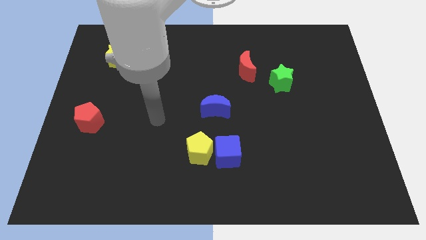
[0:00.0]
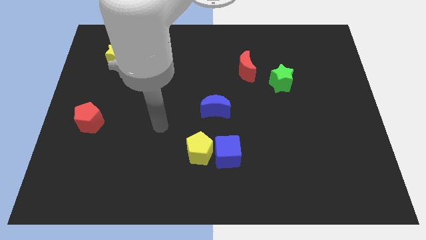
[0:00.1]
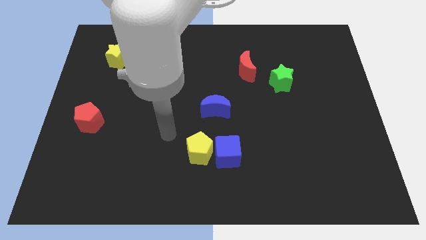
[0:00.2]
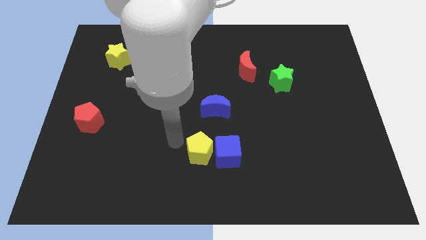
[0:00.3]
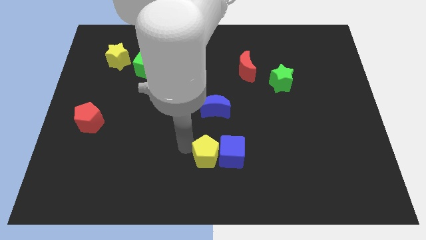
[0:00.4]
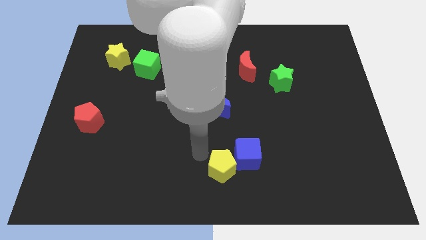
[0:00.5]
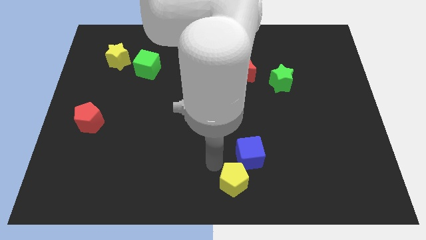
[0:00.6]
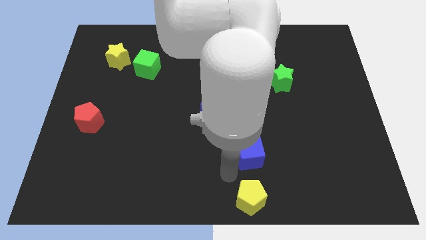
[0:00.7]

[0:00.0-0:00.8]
move the blue cube away from the yellow pentagon

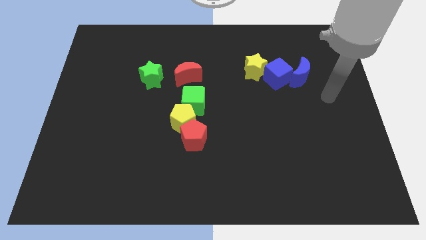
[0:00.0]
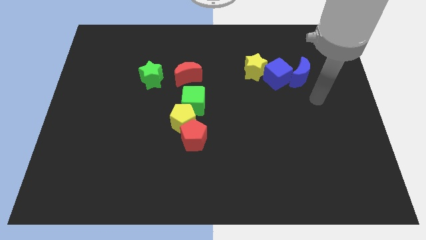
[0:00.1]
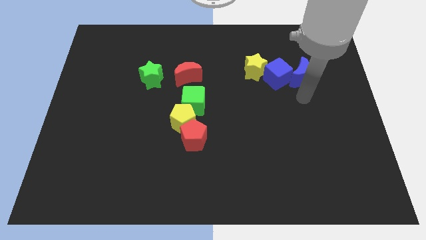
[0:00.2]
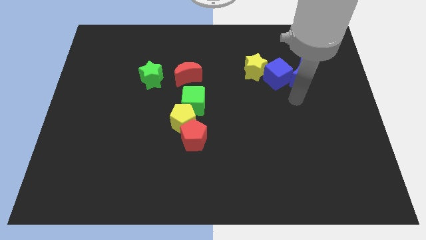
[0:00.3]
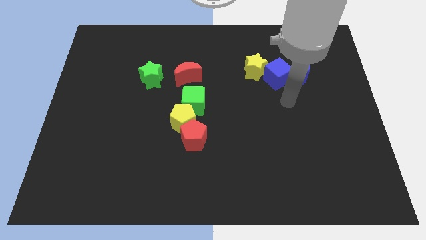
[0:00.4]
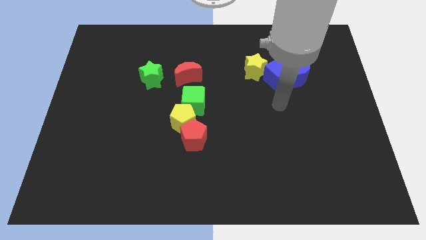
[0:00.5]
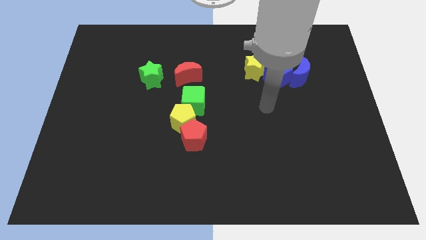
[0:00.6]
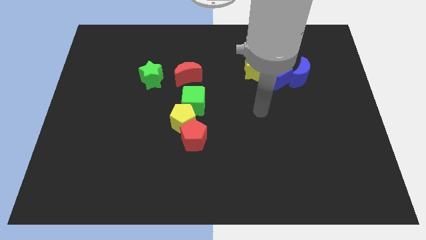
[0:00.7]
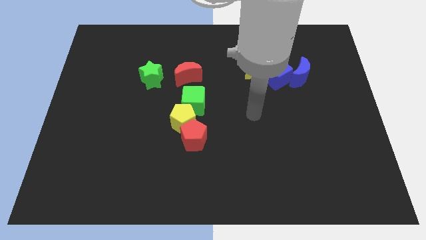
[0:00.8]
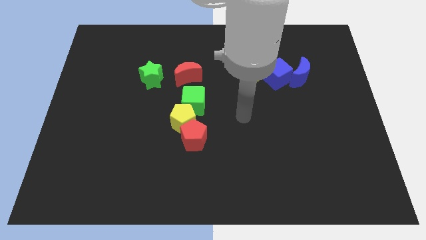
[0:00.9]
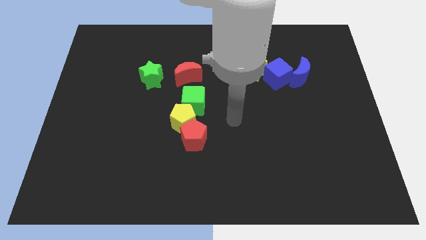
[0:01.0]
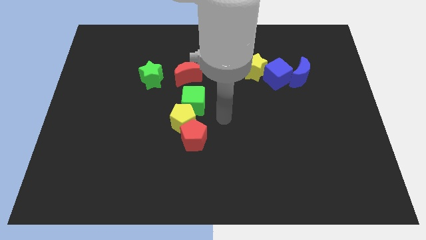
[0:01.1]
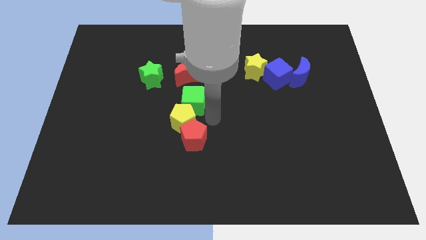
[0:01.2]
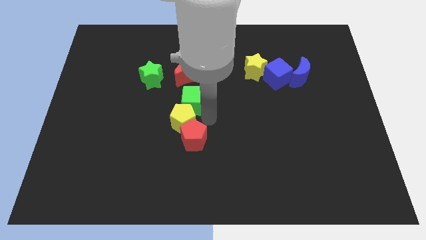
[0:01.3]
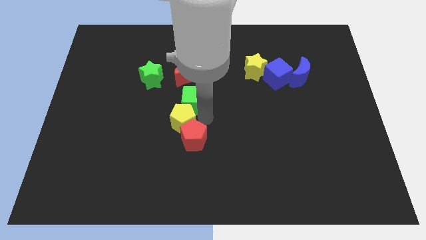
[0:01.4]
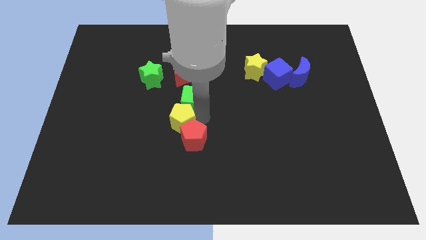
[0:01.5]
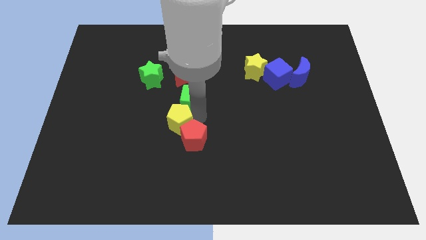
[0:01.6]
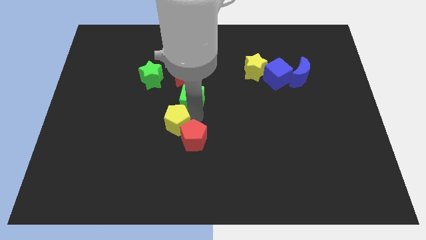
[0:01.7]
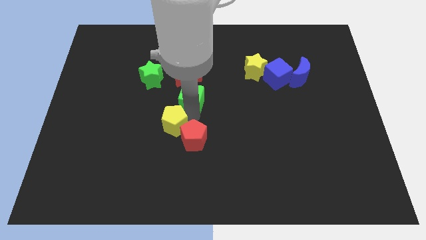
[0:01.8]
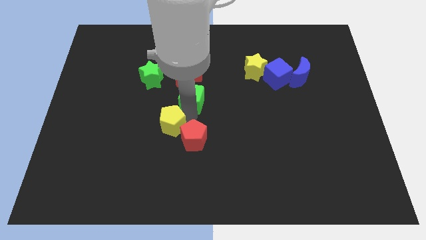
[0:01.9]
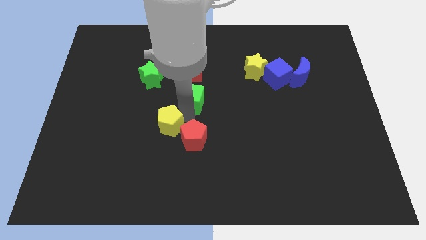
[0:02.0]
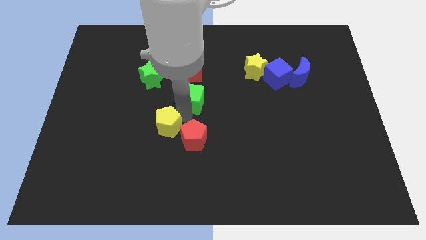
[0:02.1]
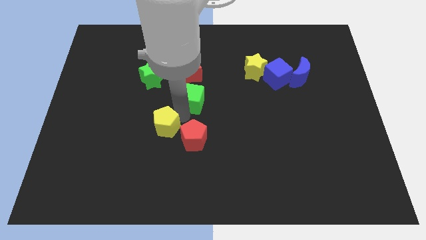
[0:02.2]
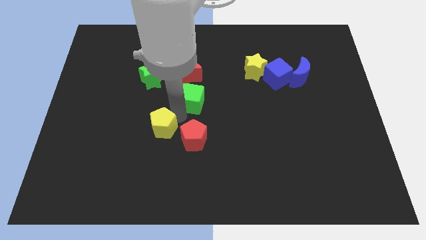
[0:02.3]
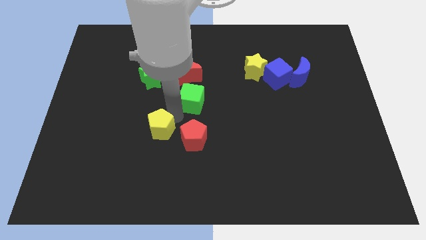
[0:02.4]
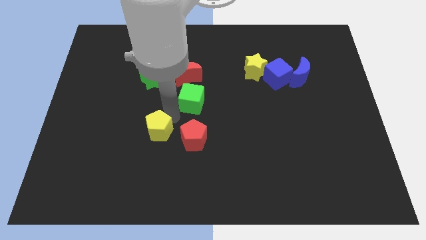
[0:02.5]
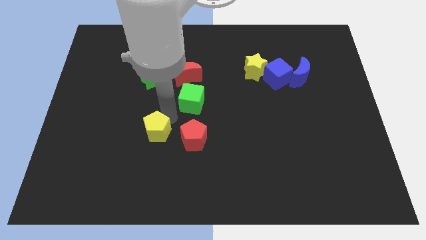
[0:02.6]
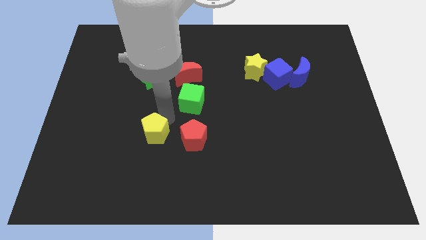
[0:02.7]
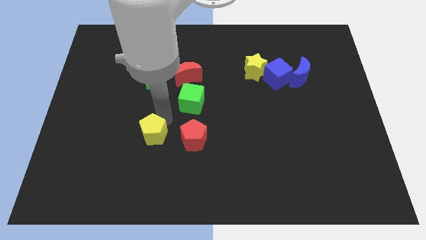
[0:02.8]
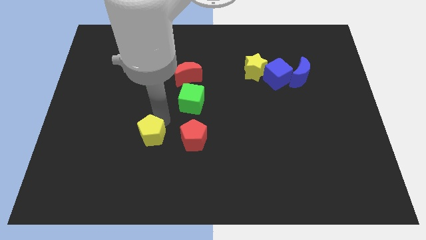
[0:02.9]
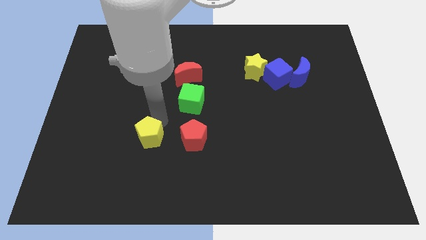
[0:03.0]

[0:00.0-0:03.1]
separate the yellow pentagon from the red pentagon and green cube

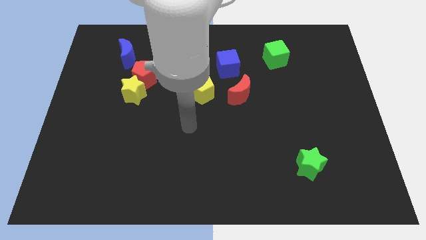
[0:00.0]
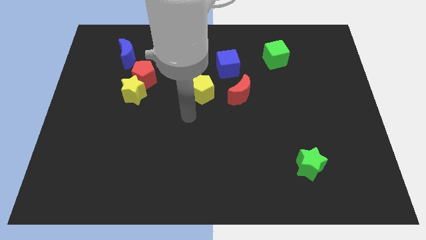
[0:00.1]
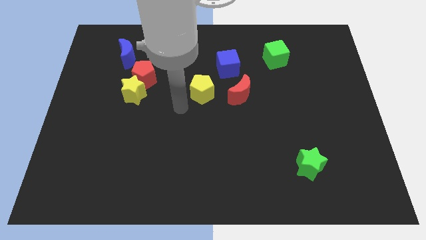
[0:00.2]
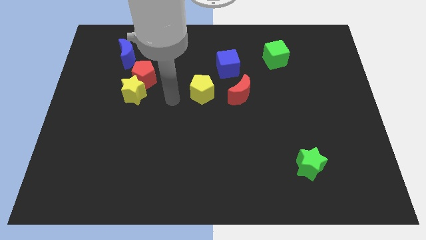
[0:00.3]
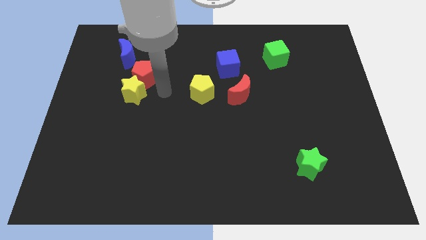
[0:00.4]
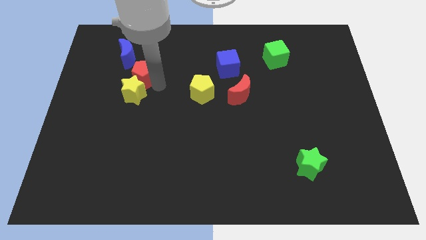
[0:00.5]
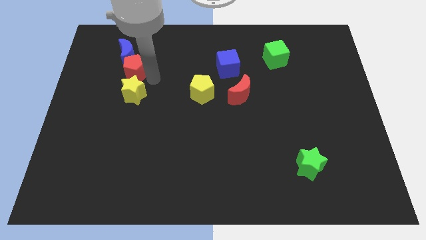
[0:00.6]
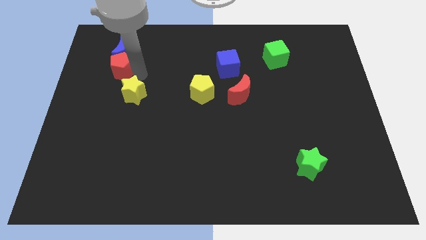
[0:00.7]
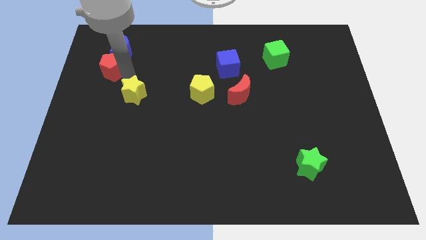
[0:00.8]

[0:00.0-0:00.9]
separate the yellow star from the red pentagon

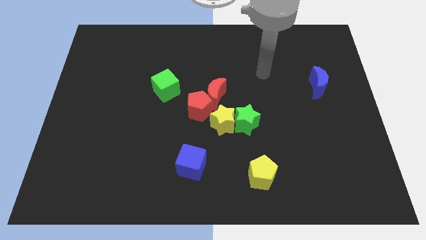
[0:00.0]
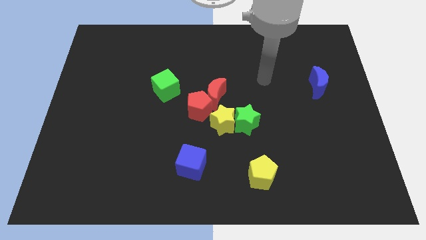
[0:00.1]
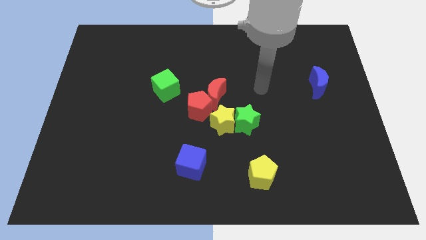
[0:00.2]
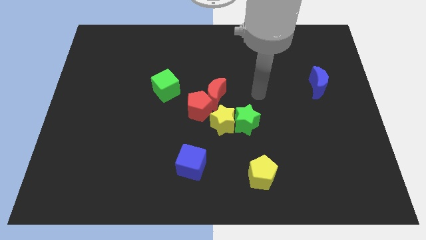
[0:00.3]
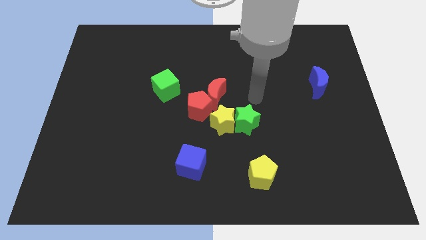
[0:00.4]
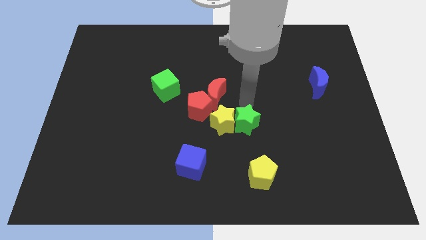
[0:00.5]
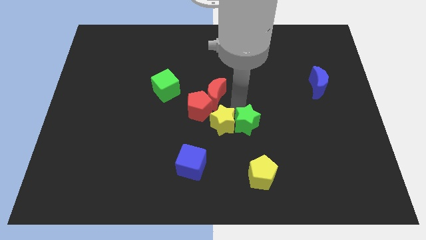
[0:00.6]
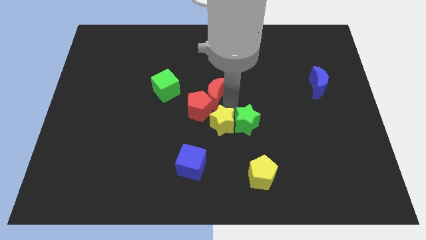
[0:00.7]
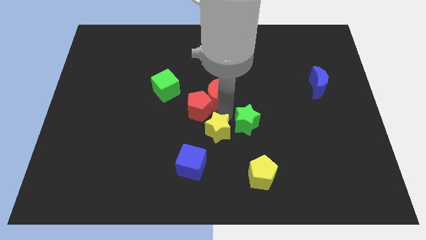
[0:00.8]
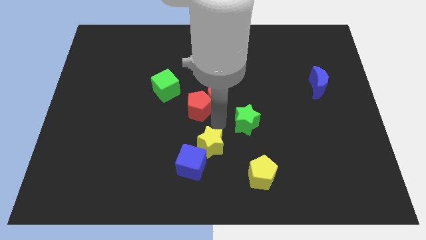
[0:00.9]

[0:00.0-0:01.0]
pull the green star apart from the yellow star

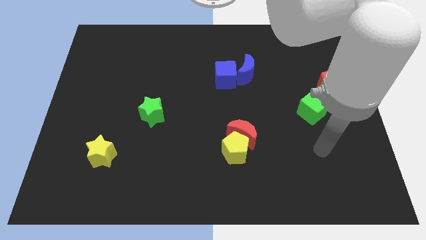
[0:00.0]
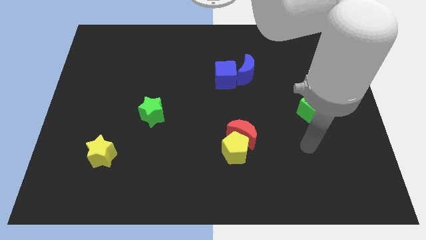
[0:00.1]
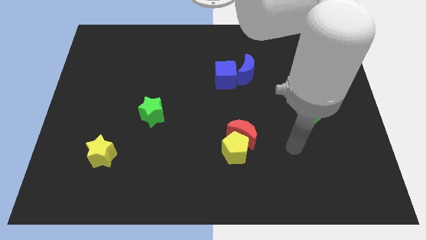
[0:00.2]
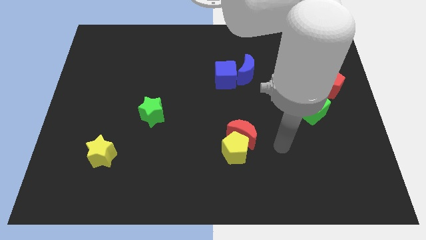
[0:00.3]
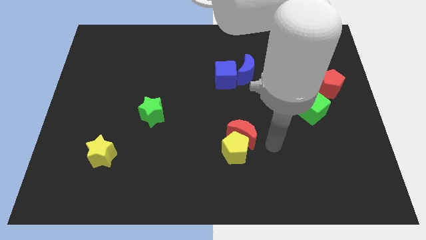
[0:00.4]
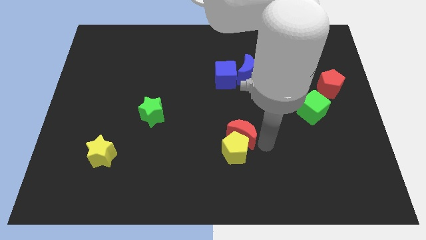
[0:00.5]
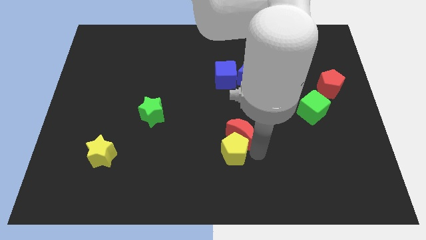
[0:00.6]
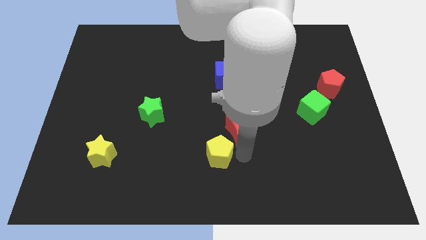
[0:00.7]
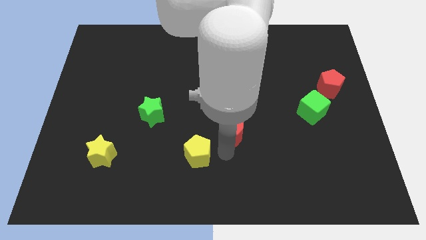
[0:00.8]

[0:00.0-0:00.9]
move the red moon away from the yellow pentagon

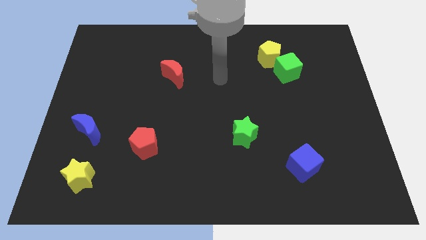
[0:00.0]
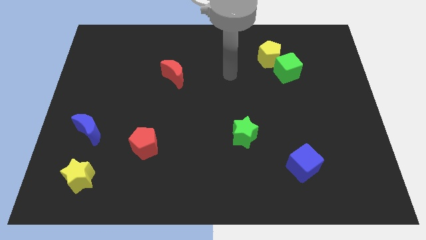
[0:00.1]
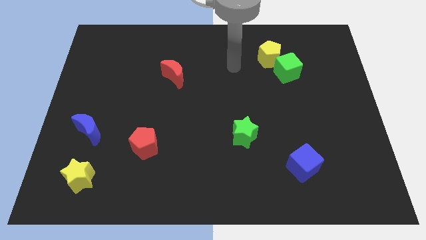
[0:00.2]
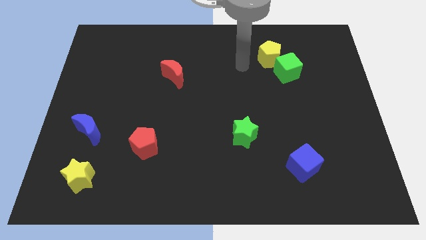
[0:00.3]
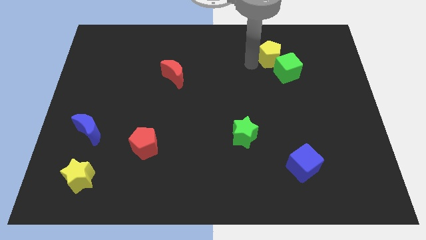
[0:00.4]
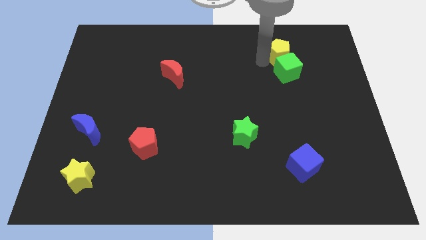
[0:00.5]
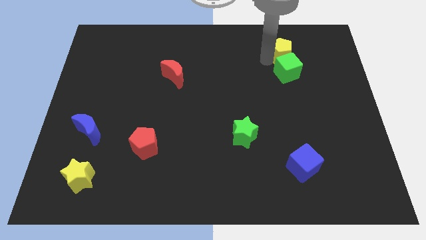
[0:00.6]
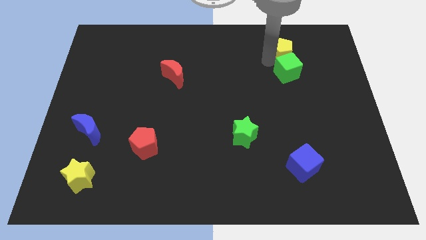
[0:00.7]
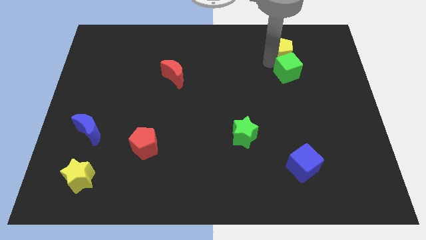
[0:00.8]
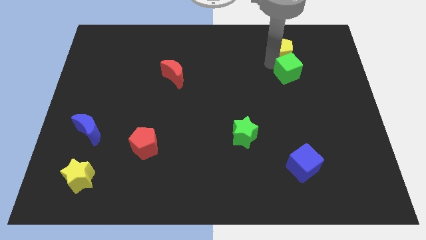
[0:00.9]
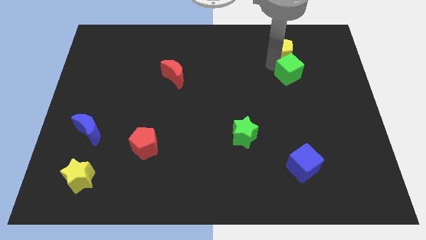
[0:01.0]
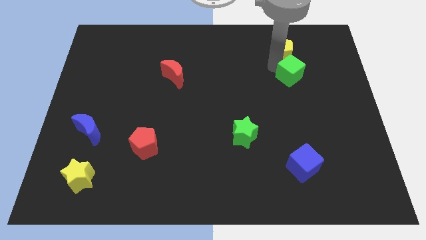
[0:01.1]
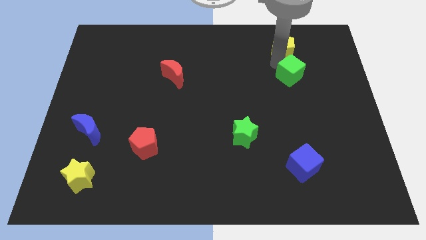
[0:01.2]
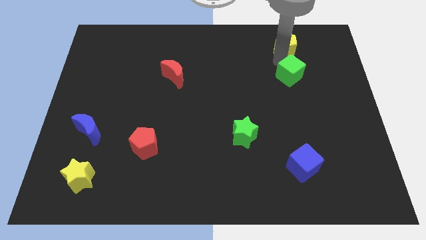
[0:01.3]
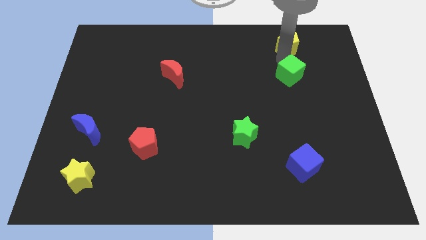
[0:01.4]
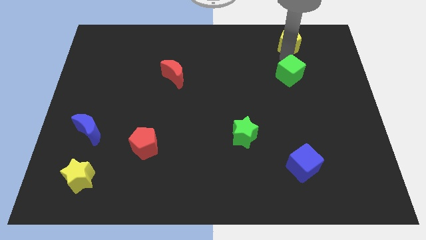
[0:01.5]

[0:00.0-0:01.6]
move the green cube away from the yellow pentagon

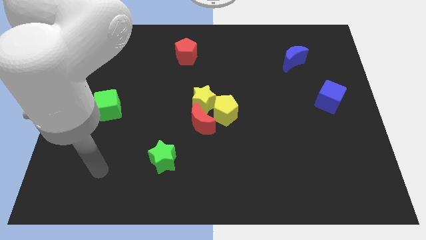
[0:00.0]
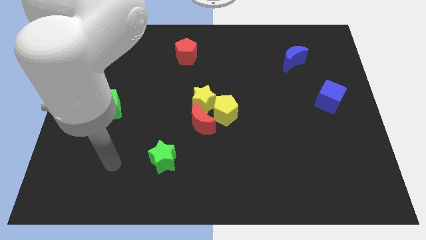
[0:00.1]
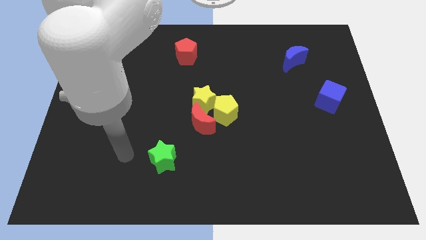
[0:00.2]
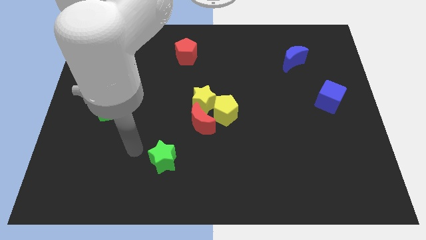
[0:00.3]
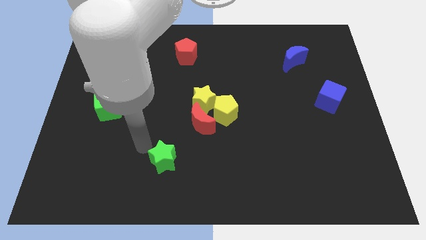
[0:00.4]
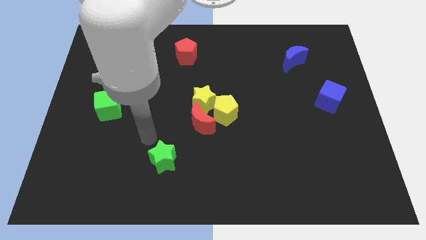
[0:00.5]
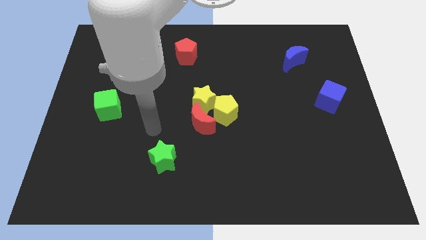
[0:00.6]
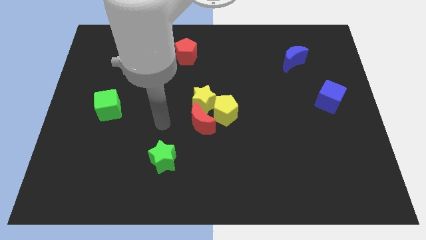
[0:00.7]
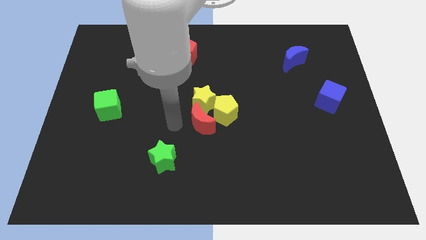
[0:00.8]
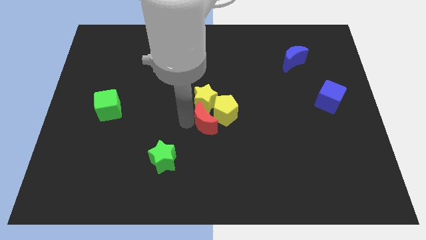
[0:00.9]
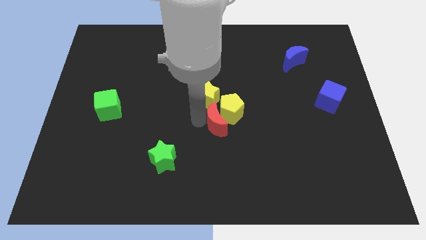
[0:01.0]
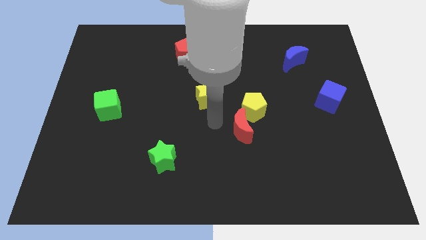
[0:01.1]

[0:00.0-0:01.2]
move the yellow star away from the red moon and yellow pentagon

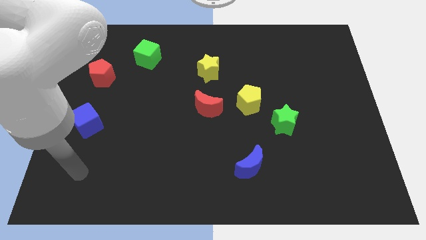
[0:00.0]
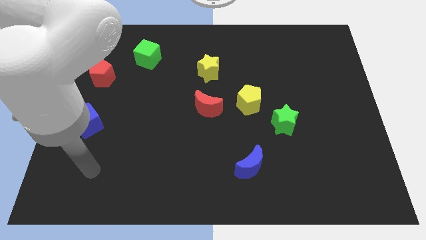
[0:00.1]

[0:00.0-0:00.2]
pull the green star apart from the yellow pentagon
